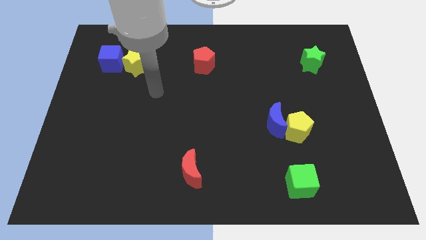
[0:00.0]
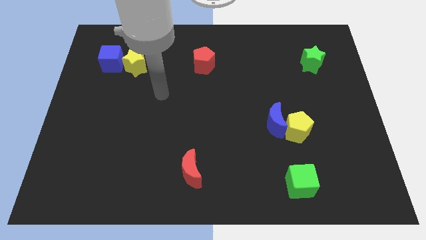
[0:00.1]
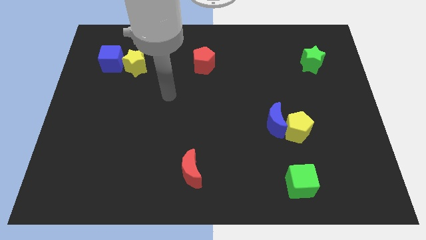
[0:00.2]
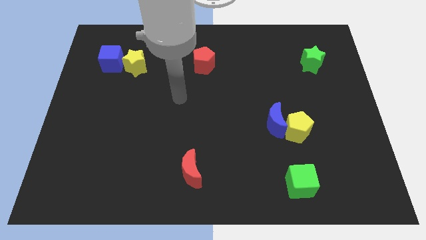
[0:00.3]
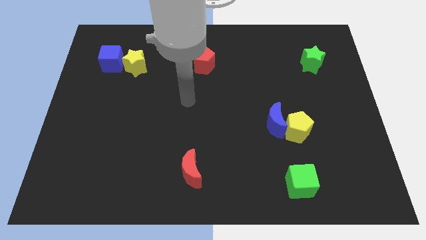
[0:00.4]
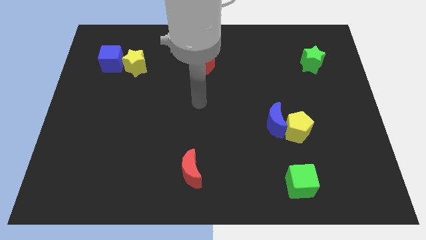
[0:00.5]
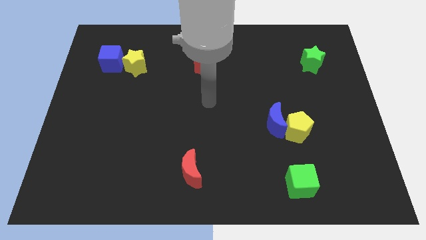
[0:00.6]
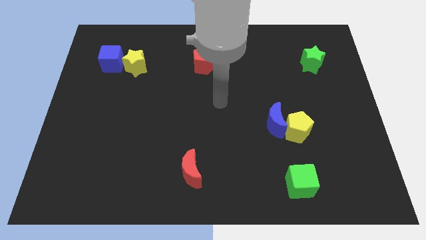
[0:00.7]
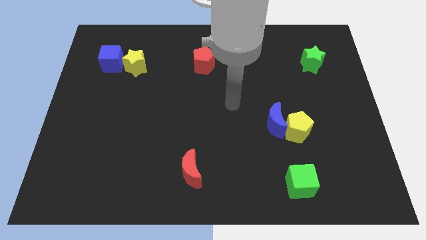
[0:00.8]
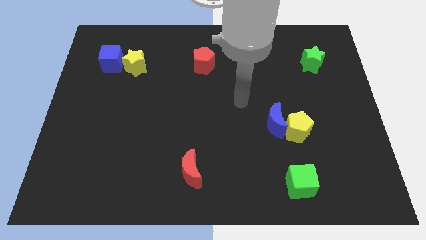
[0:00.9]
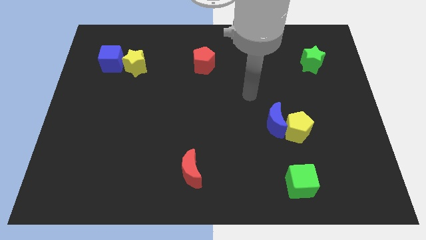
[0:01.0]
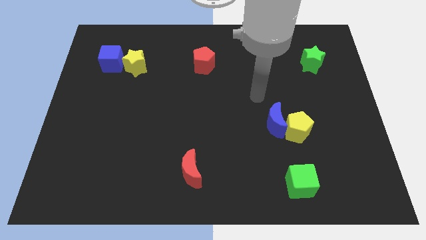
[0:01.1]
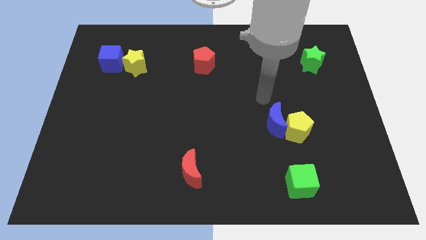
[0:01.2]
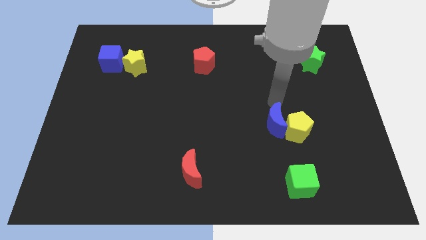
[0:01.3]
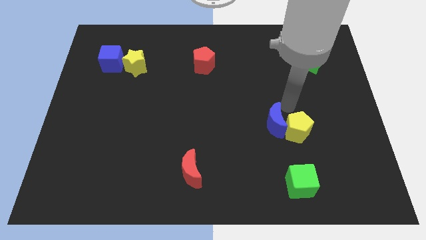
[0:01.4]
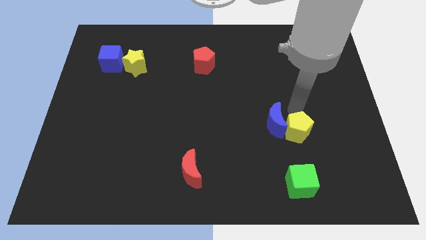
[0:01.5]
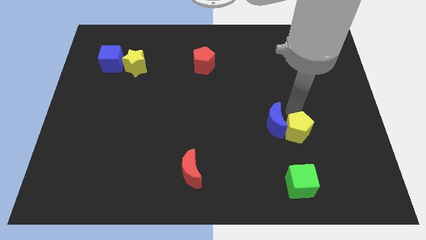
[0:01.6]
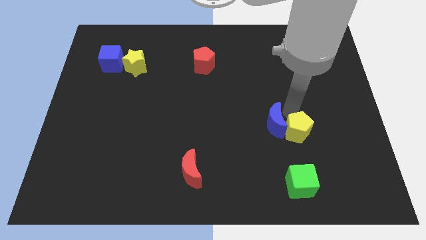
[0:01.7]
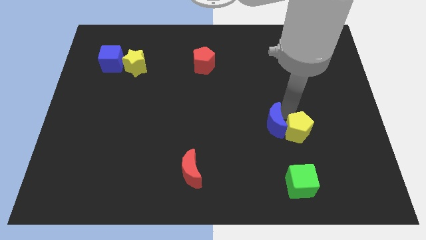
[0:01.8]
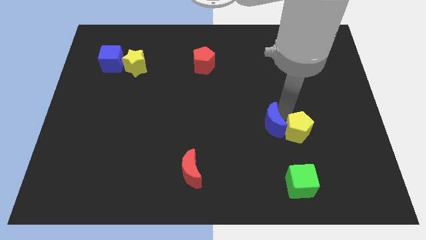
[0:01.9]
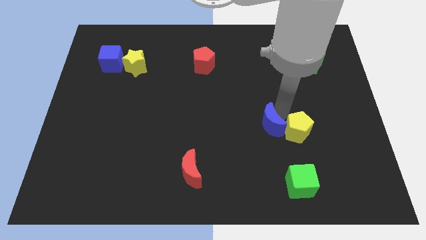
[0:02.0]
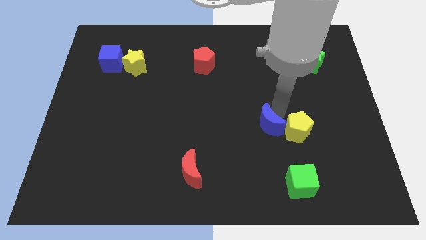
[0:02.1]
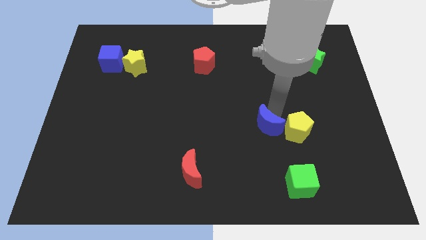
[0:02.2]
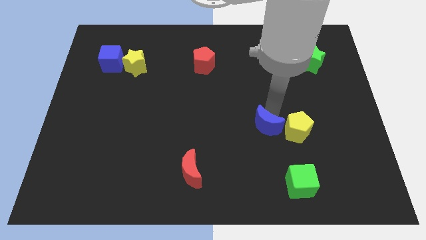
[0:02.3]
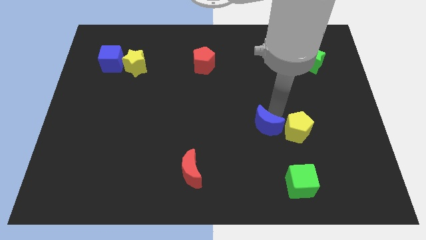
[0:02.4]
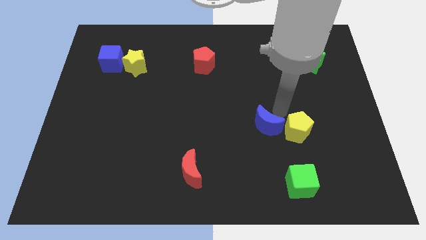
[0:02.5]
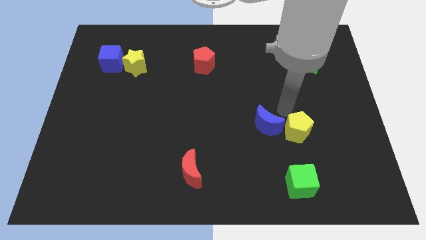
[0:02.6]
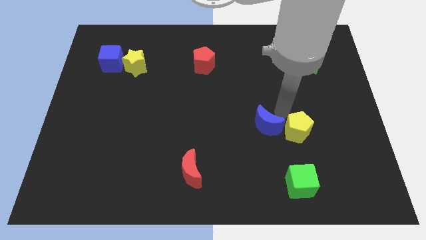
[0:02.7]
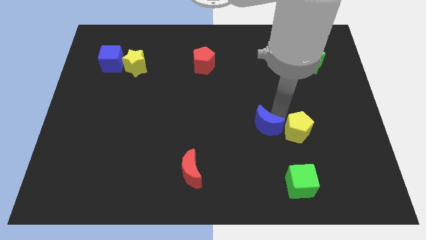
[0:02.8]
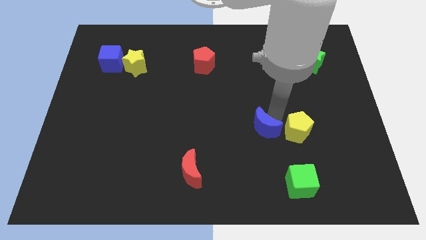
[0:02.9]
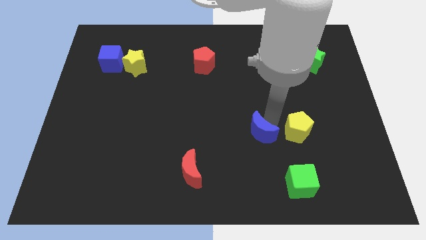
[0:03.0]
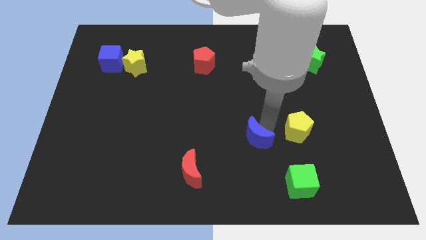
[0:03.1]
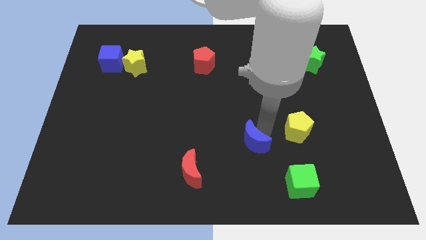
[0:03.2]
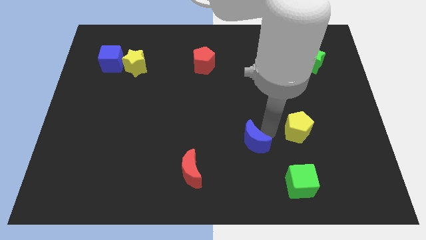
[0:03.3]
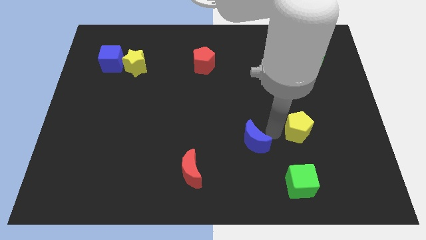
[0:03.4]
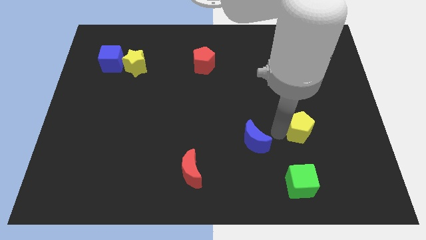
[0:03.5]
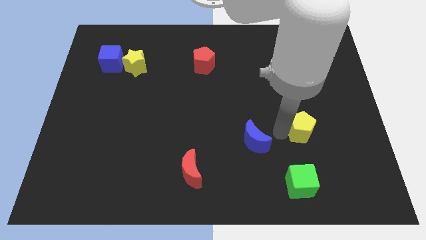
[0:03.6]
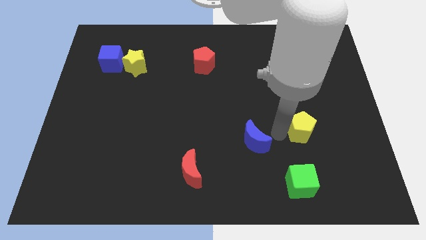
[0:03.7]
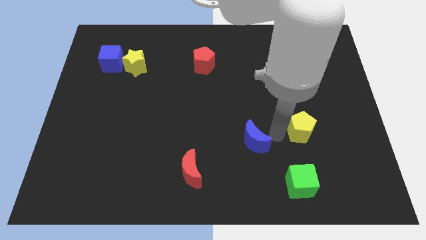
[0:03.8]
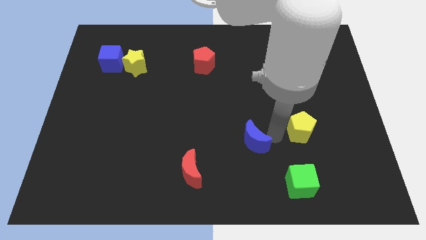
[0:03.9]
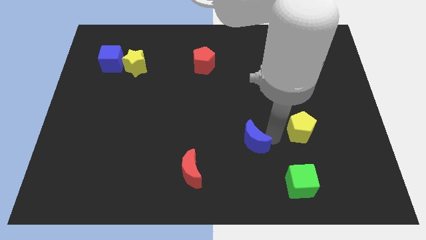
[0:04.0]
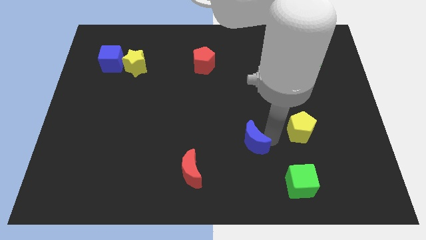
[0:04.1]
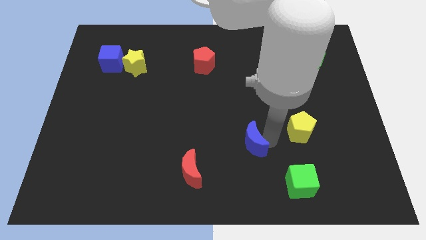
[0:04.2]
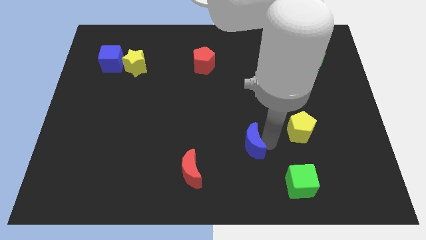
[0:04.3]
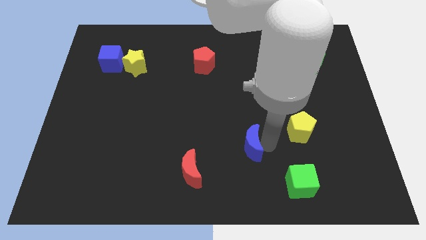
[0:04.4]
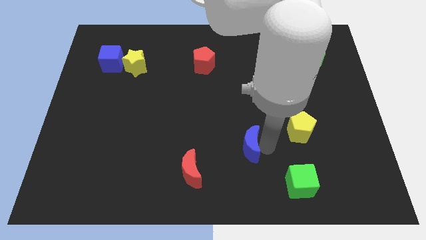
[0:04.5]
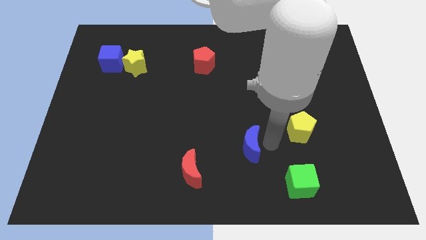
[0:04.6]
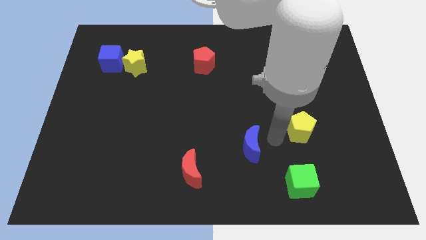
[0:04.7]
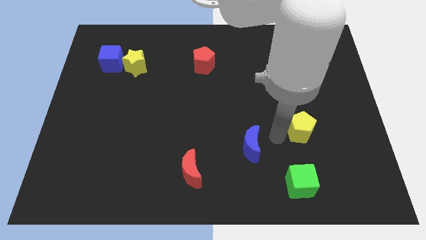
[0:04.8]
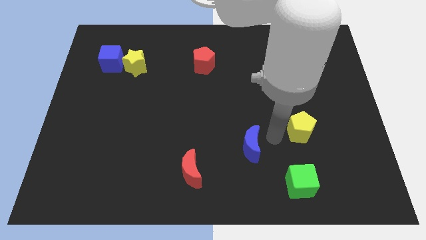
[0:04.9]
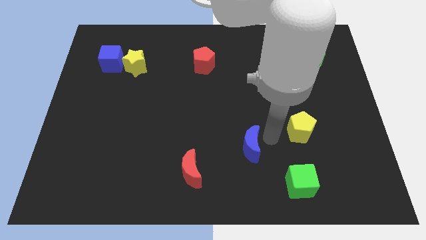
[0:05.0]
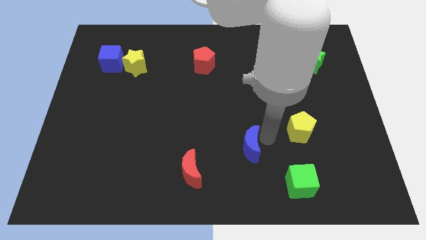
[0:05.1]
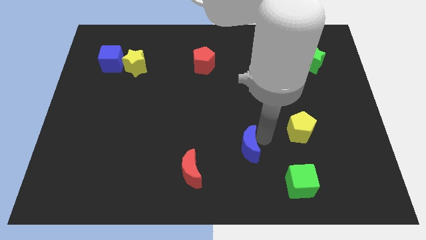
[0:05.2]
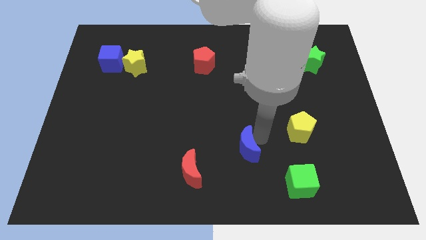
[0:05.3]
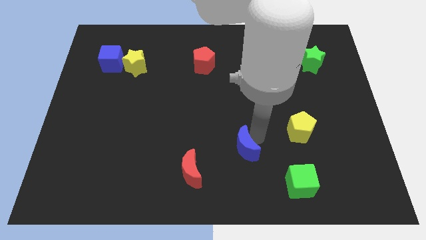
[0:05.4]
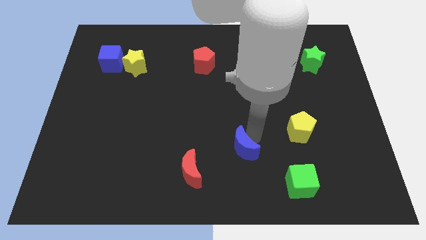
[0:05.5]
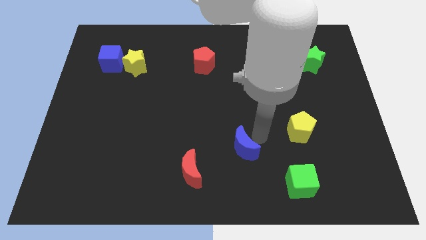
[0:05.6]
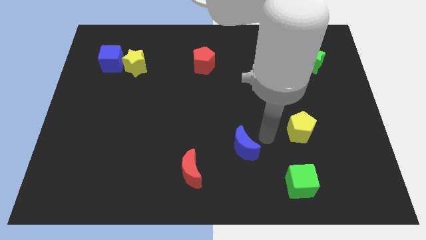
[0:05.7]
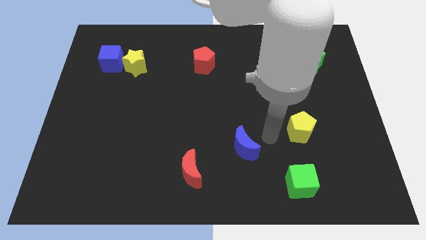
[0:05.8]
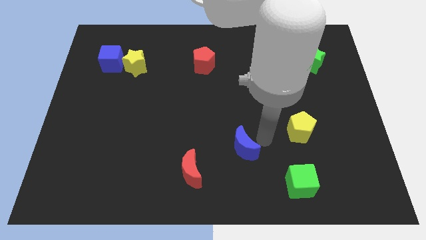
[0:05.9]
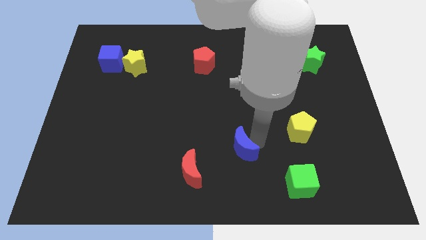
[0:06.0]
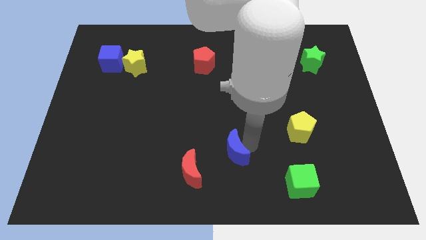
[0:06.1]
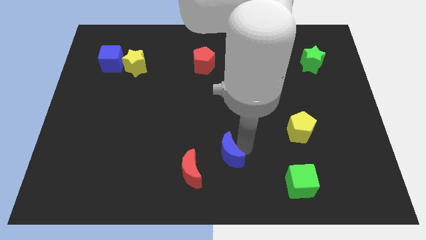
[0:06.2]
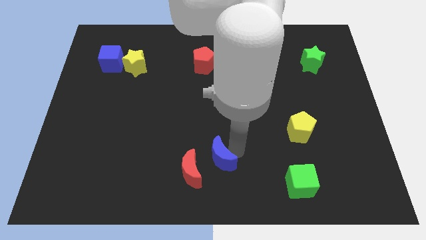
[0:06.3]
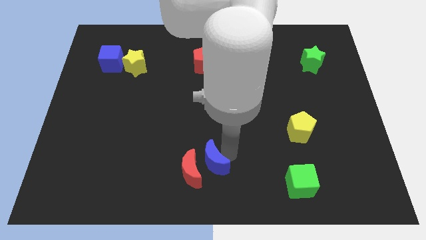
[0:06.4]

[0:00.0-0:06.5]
move the blue moon to the red moon

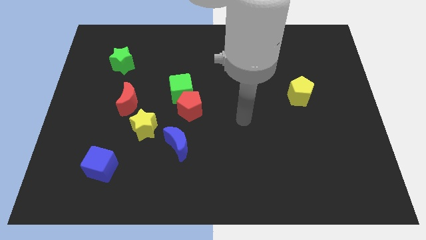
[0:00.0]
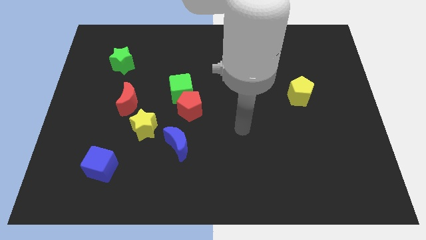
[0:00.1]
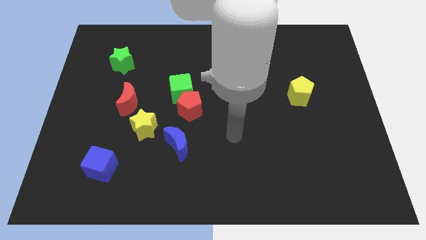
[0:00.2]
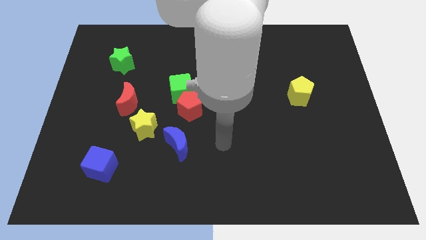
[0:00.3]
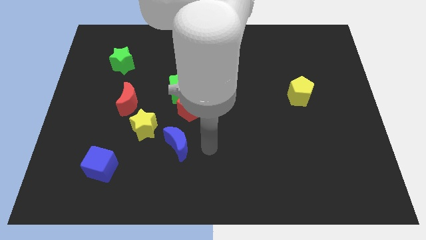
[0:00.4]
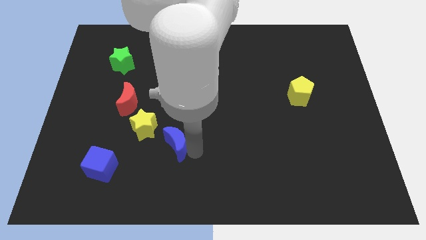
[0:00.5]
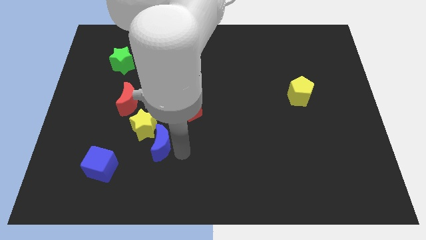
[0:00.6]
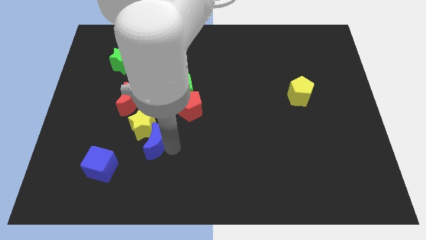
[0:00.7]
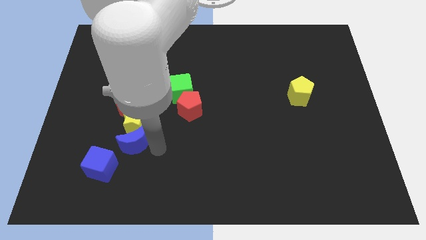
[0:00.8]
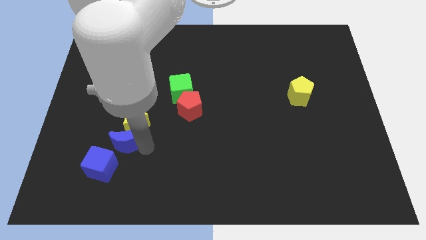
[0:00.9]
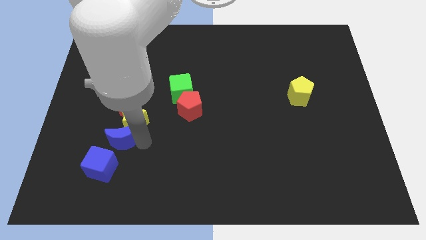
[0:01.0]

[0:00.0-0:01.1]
put the yellow star towards the red moon
